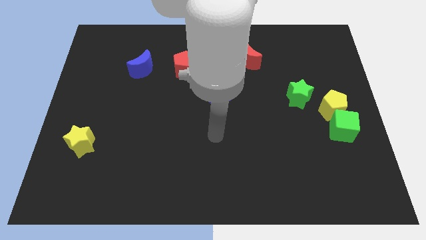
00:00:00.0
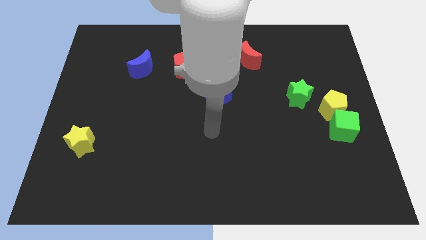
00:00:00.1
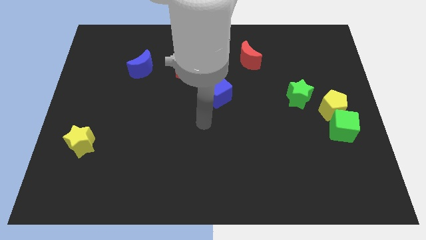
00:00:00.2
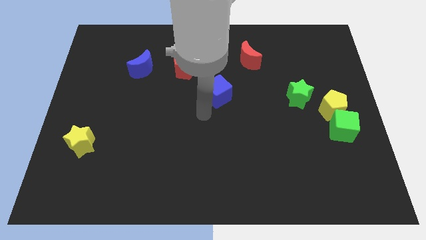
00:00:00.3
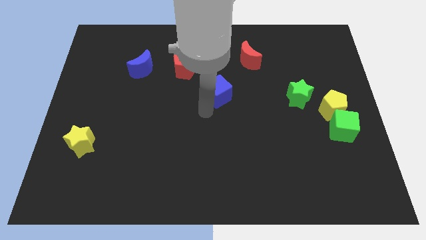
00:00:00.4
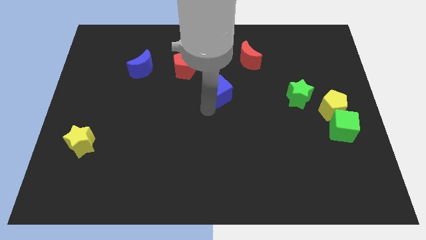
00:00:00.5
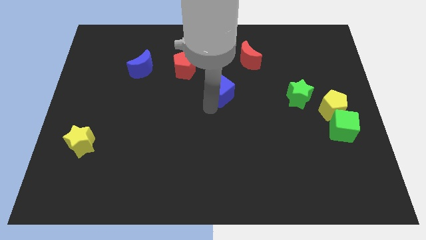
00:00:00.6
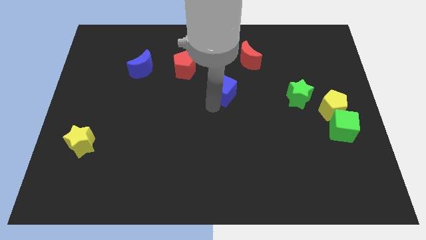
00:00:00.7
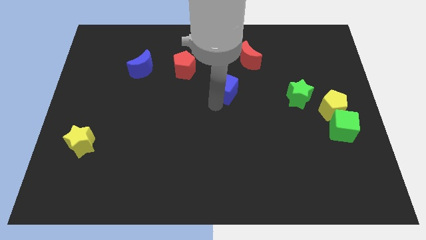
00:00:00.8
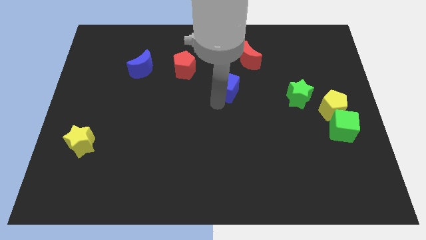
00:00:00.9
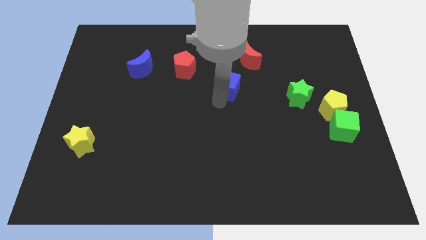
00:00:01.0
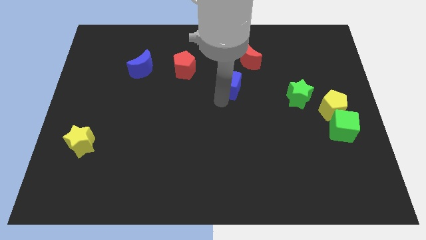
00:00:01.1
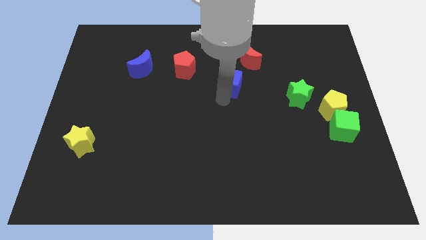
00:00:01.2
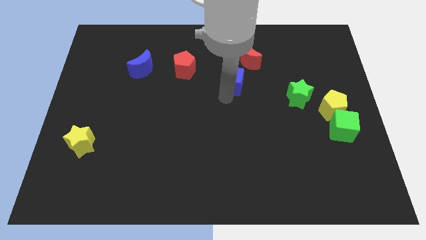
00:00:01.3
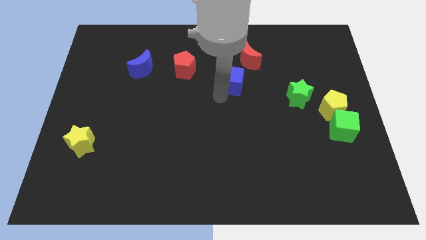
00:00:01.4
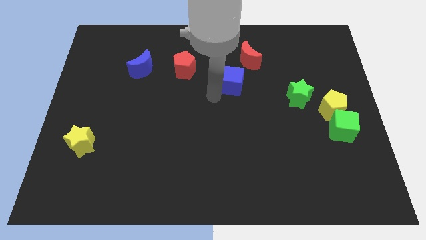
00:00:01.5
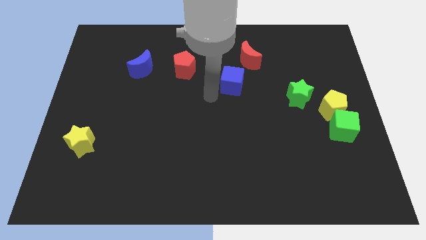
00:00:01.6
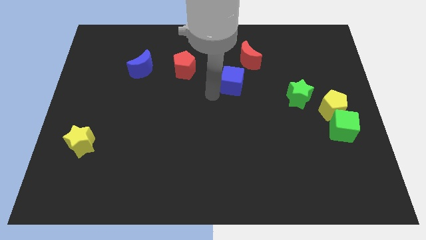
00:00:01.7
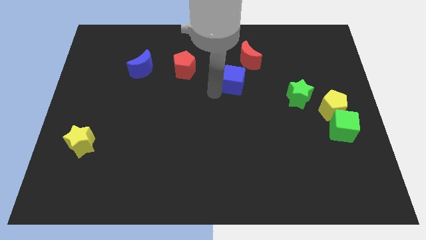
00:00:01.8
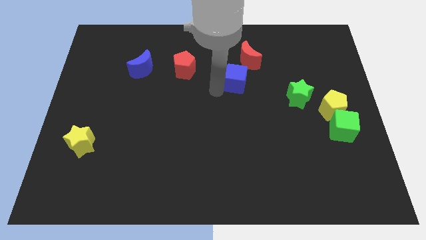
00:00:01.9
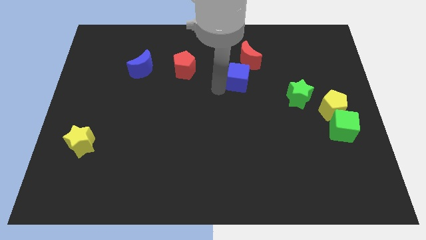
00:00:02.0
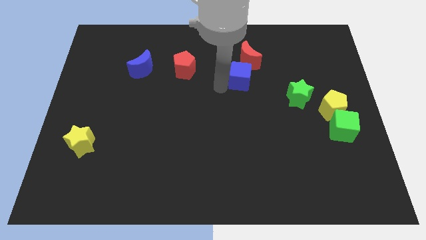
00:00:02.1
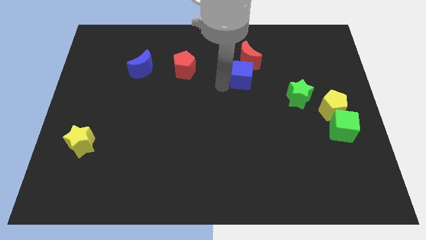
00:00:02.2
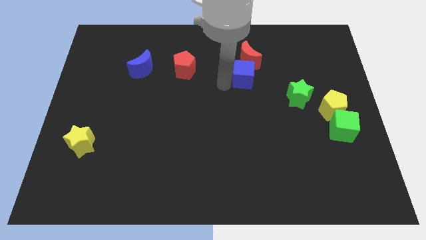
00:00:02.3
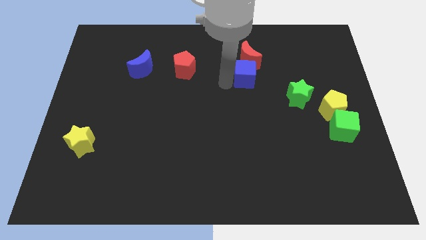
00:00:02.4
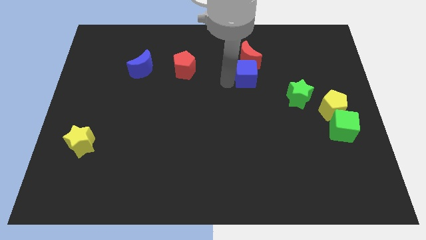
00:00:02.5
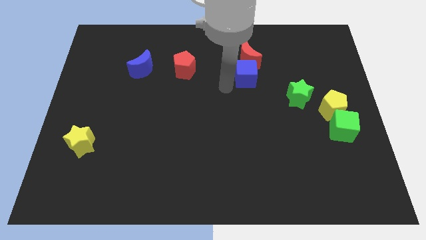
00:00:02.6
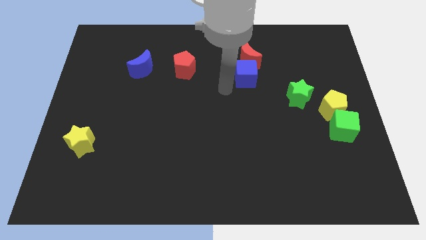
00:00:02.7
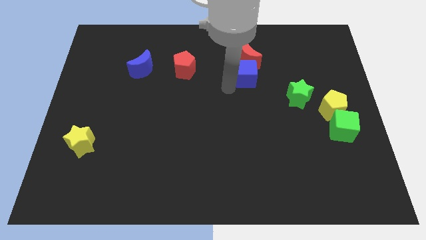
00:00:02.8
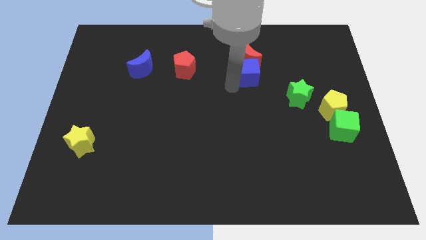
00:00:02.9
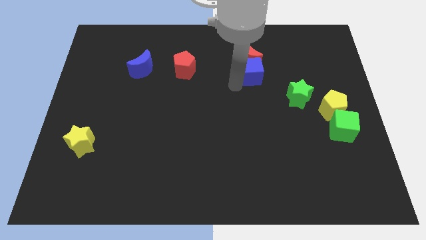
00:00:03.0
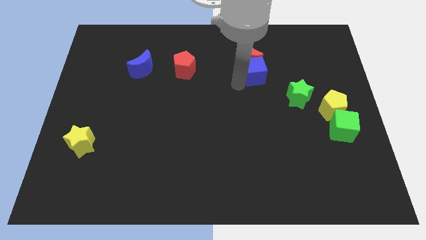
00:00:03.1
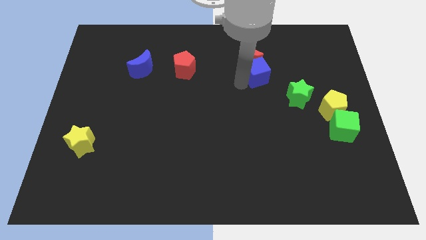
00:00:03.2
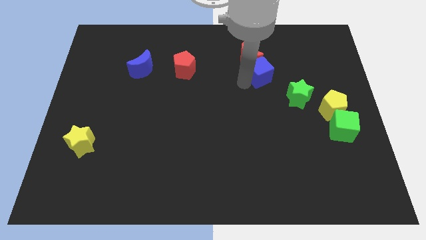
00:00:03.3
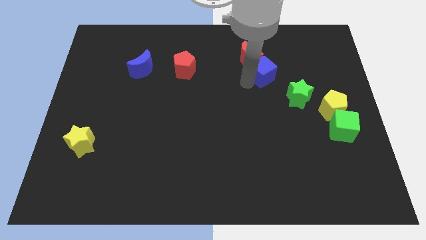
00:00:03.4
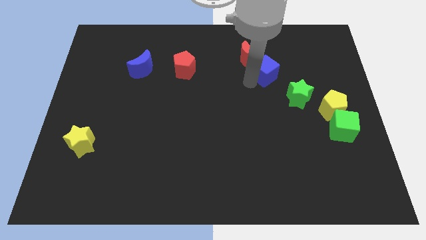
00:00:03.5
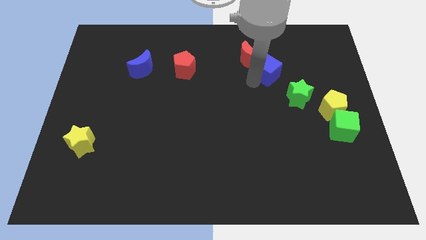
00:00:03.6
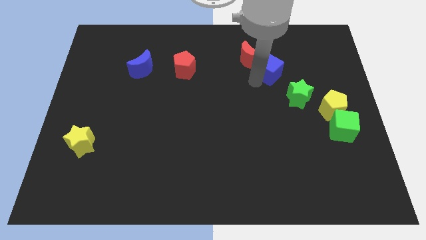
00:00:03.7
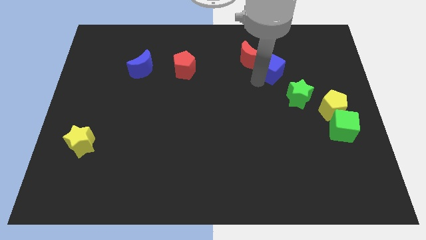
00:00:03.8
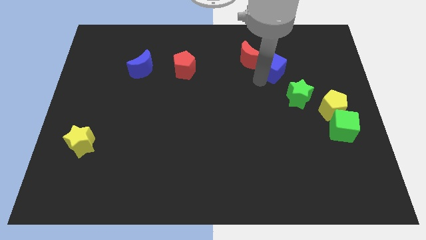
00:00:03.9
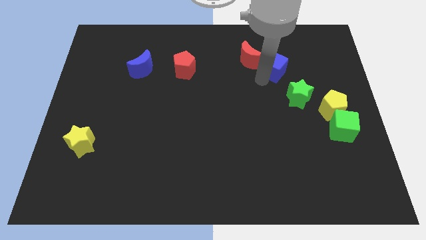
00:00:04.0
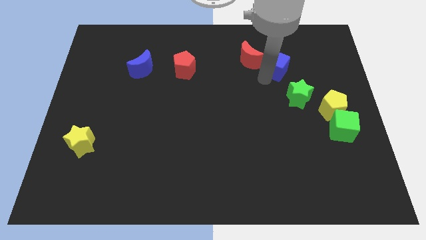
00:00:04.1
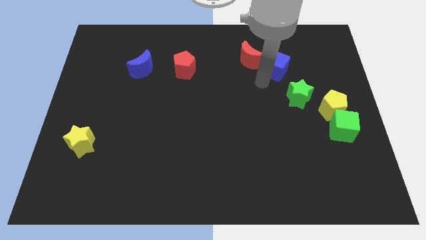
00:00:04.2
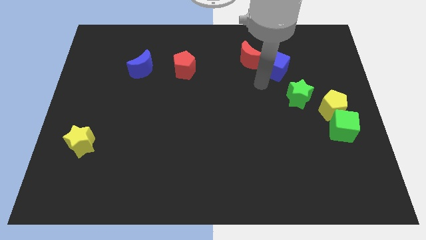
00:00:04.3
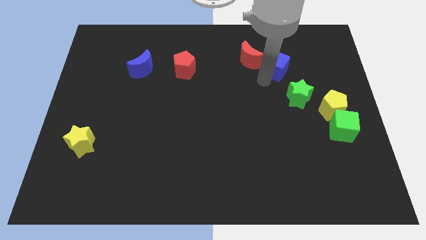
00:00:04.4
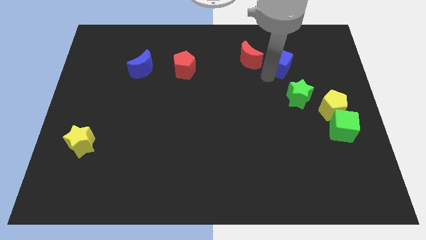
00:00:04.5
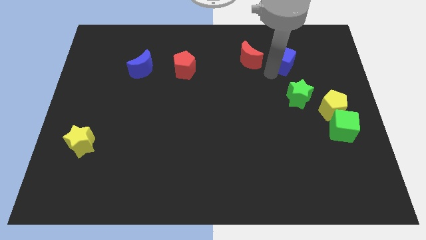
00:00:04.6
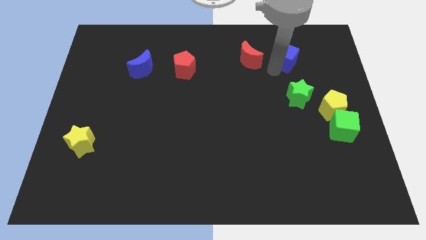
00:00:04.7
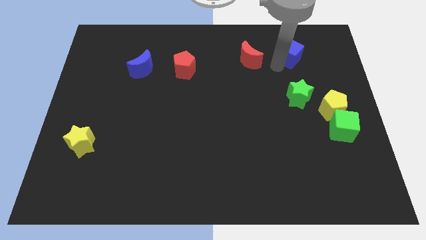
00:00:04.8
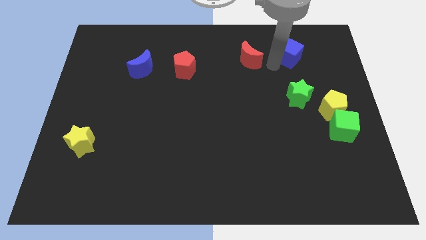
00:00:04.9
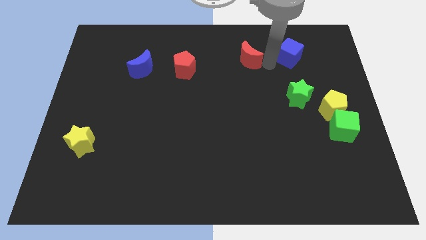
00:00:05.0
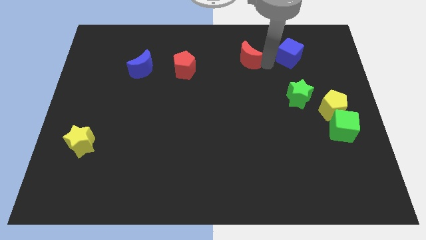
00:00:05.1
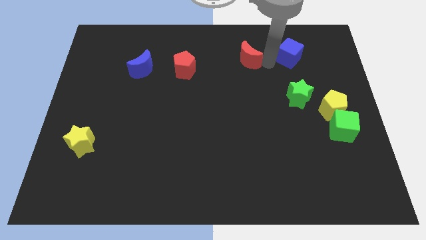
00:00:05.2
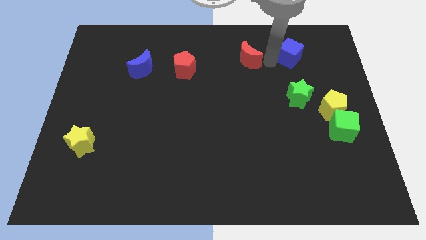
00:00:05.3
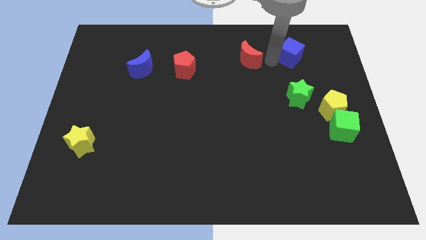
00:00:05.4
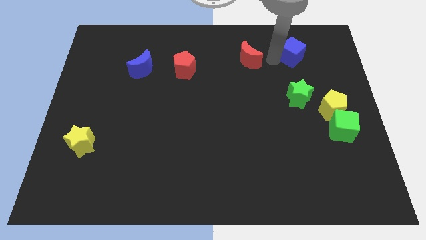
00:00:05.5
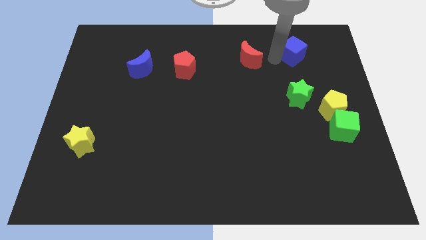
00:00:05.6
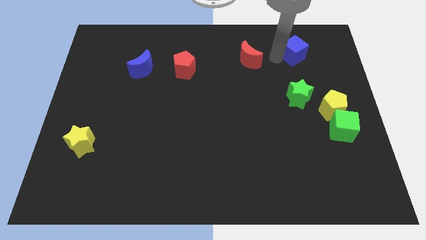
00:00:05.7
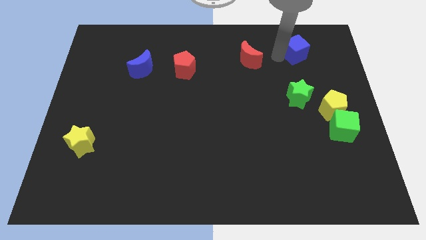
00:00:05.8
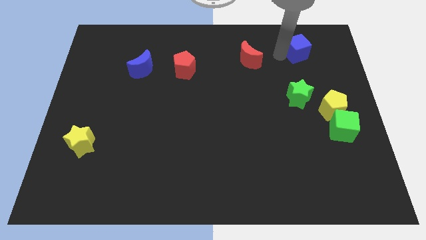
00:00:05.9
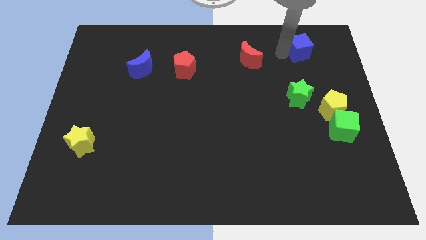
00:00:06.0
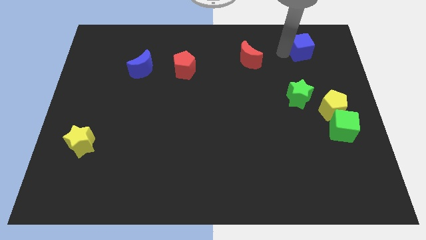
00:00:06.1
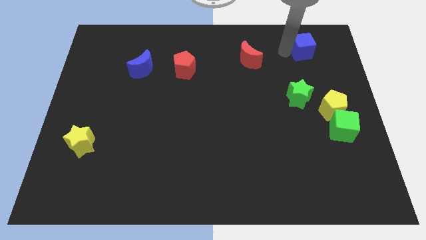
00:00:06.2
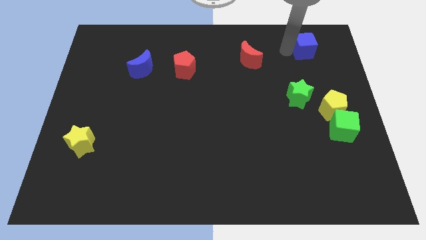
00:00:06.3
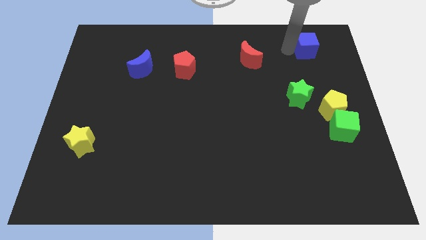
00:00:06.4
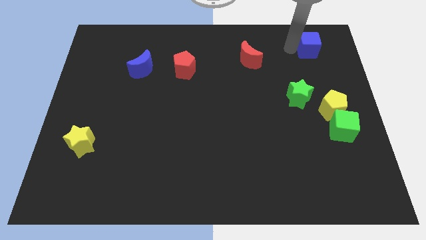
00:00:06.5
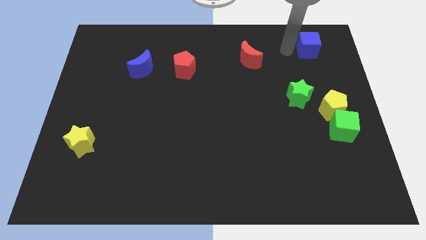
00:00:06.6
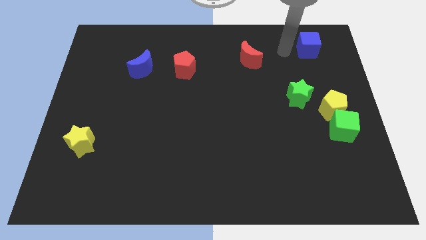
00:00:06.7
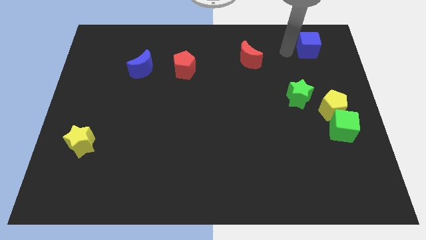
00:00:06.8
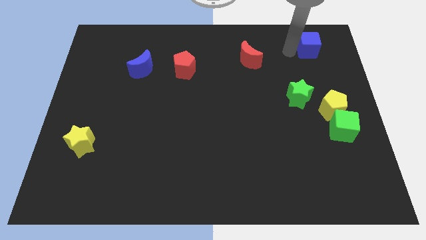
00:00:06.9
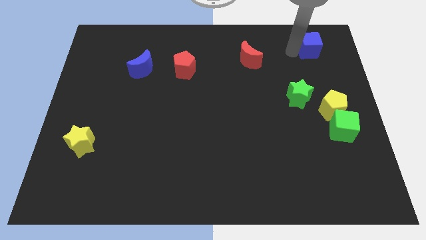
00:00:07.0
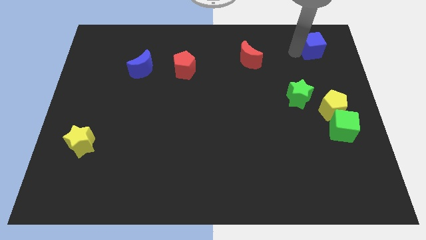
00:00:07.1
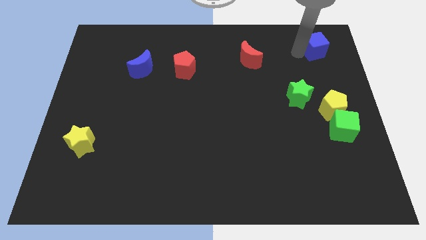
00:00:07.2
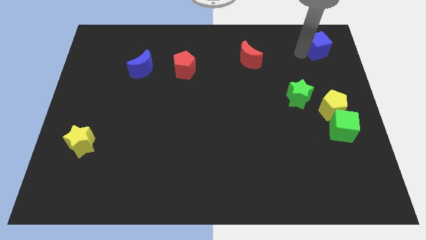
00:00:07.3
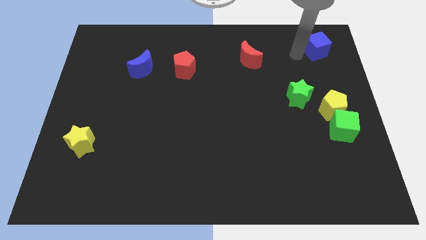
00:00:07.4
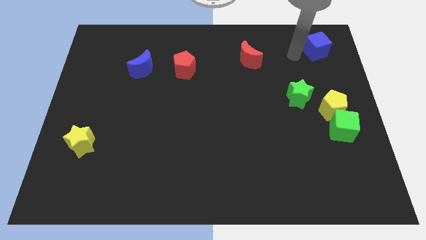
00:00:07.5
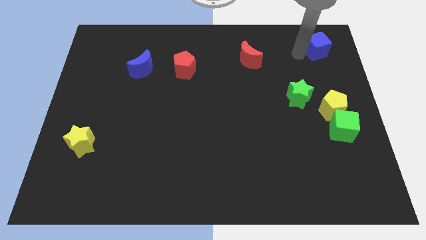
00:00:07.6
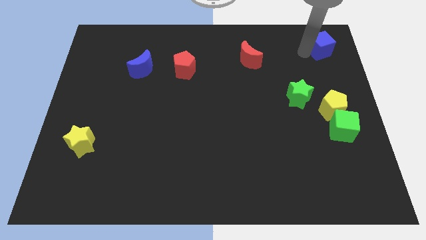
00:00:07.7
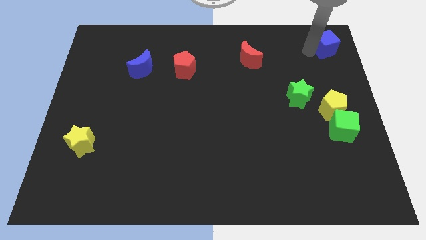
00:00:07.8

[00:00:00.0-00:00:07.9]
put the blue cube to the top right corner
